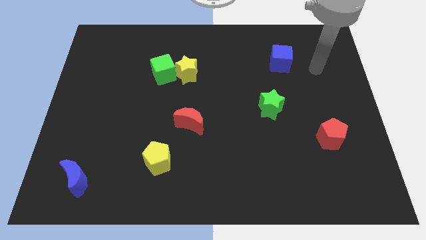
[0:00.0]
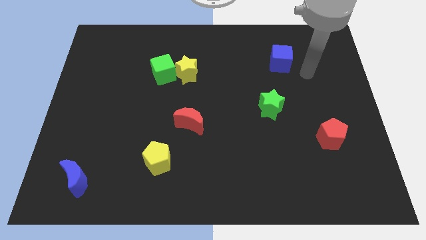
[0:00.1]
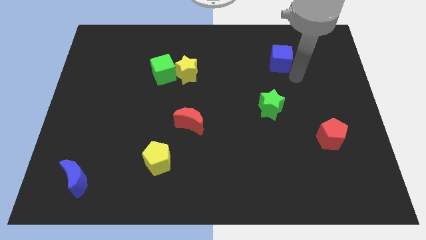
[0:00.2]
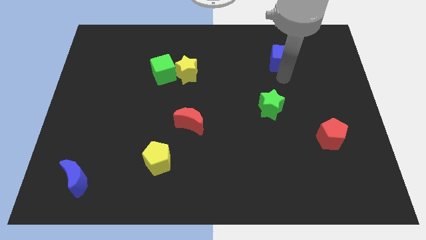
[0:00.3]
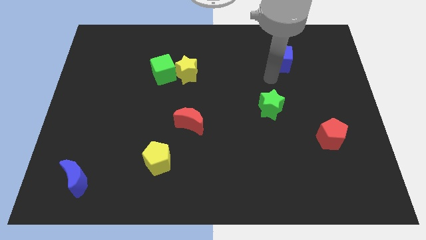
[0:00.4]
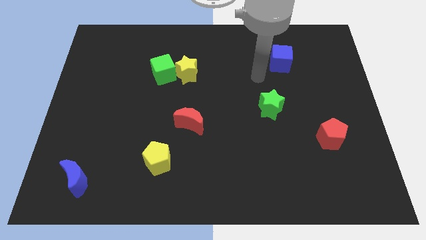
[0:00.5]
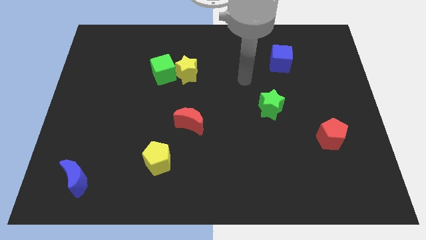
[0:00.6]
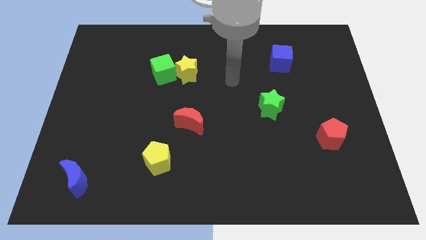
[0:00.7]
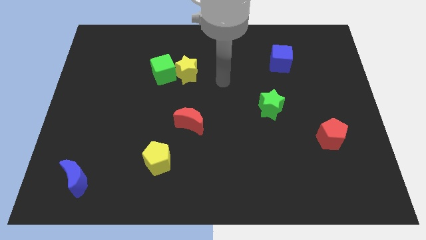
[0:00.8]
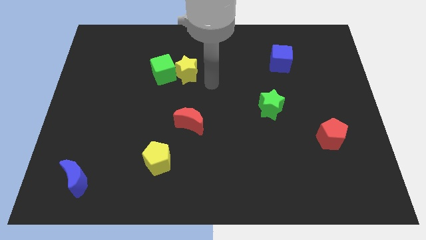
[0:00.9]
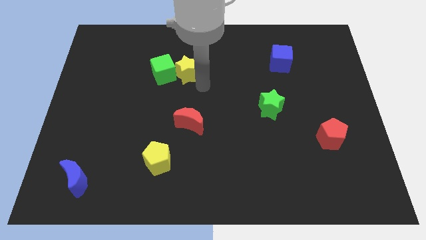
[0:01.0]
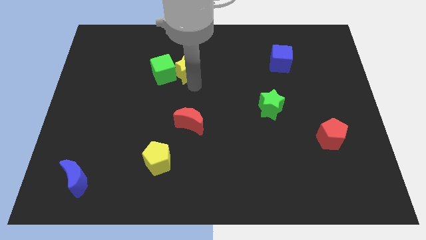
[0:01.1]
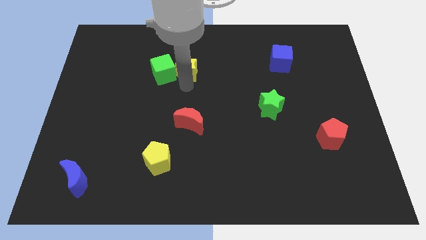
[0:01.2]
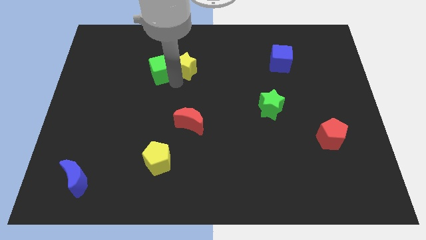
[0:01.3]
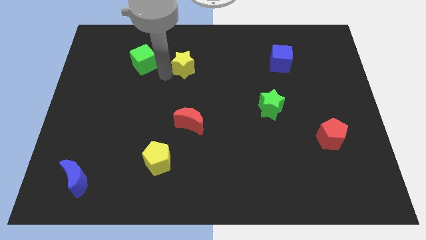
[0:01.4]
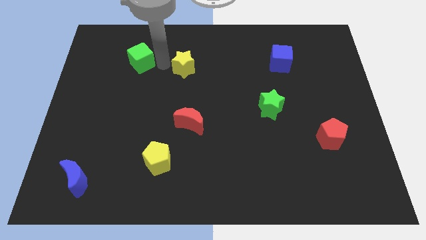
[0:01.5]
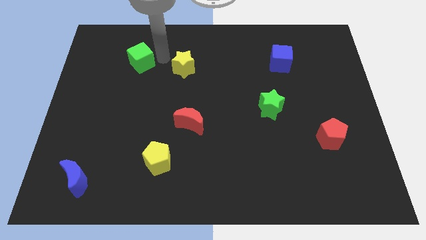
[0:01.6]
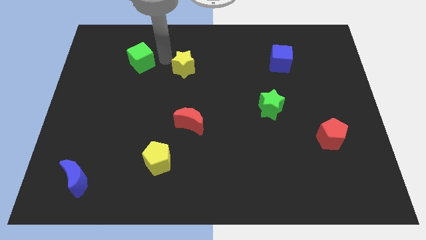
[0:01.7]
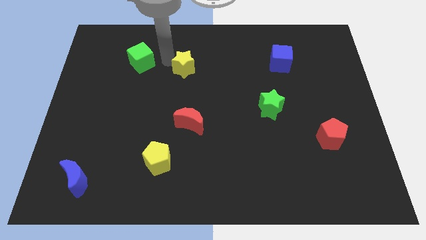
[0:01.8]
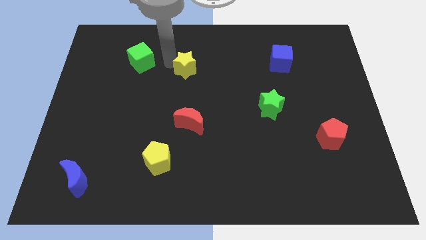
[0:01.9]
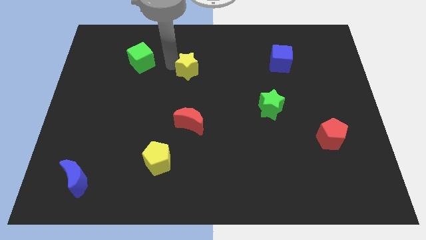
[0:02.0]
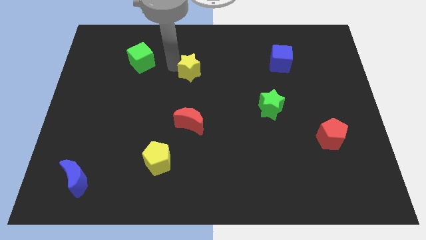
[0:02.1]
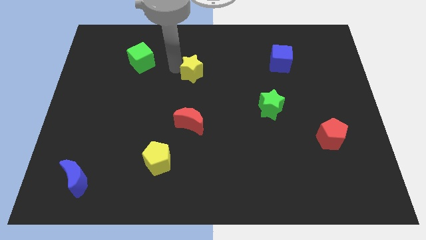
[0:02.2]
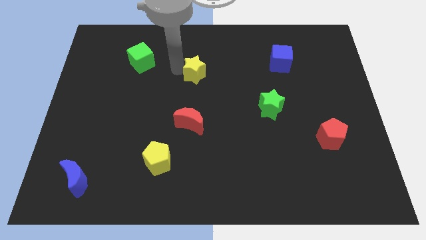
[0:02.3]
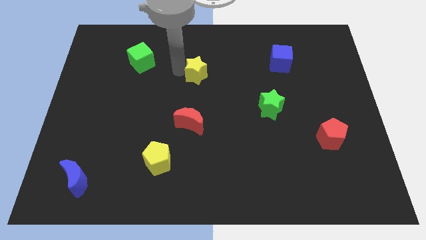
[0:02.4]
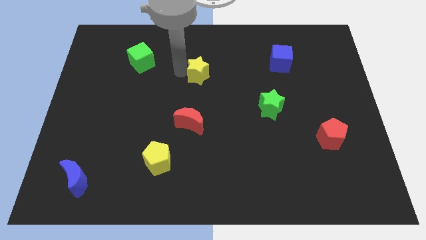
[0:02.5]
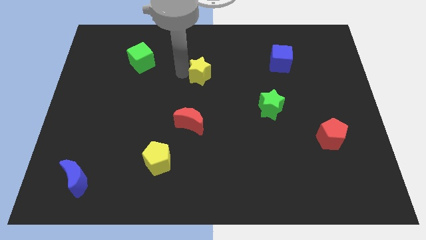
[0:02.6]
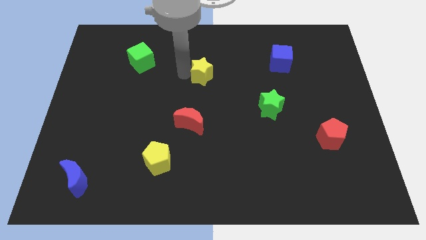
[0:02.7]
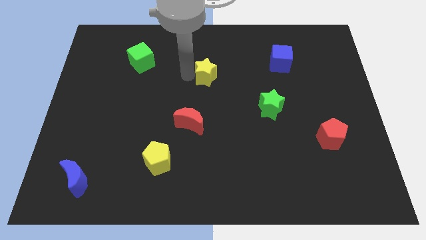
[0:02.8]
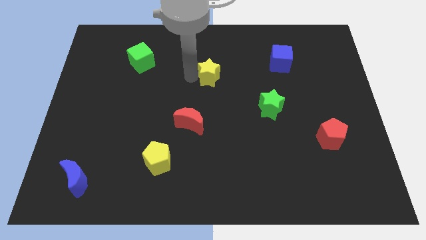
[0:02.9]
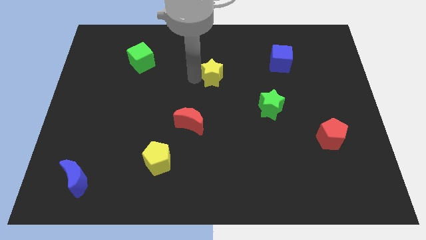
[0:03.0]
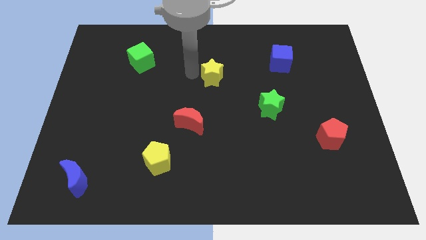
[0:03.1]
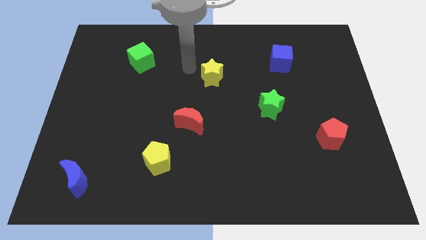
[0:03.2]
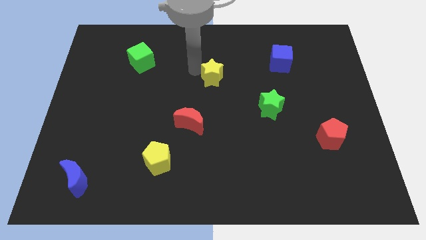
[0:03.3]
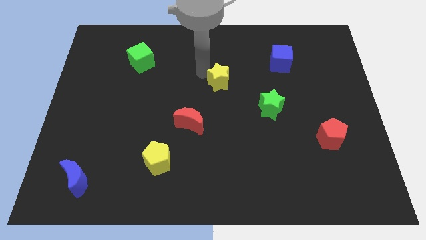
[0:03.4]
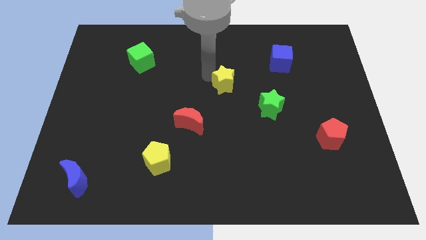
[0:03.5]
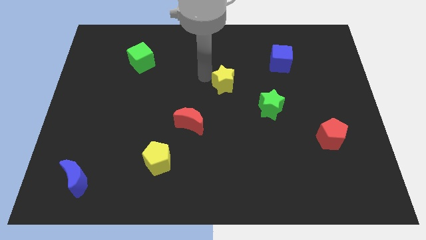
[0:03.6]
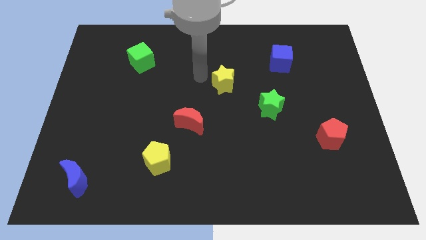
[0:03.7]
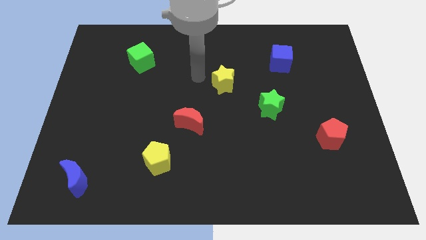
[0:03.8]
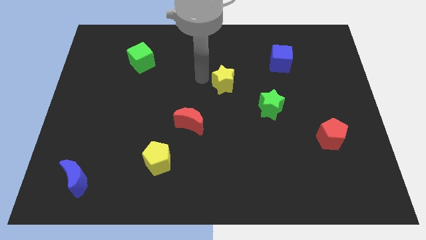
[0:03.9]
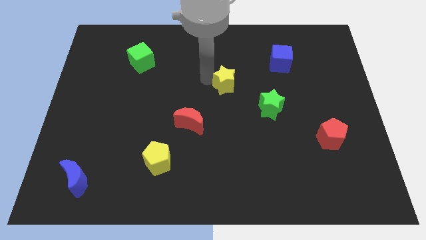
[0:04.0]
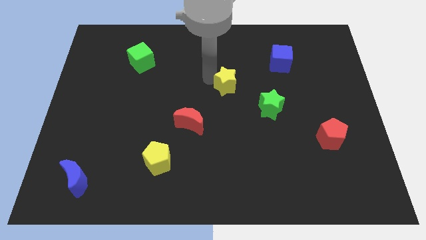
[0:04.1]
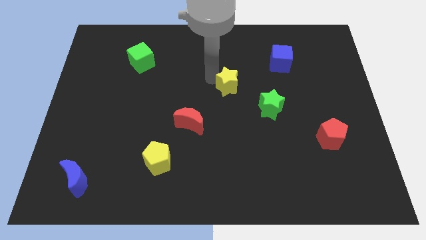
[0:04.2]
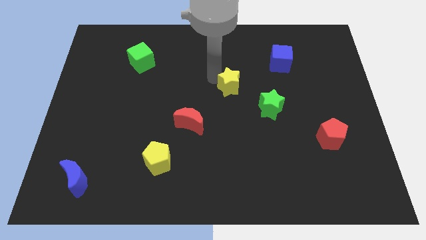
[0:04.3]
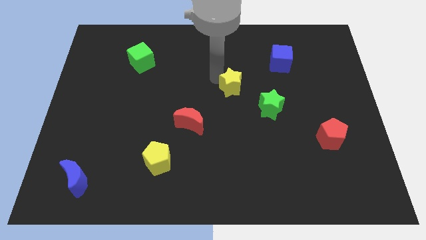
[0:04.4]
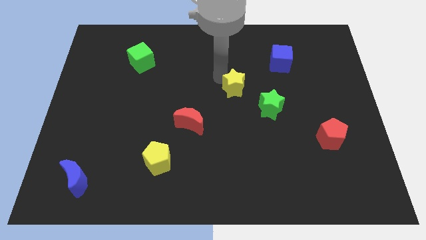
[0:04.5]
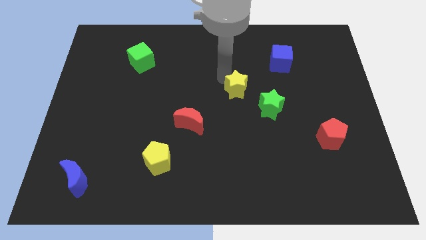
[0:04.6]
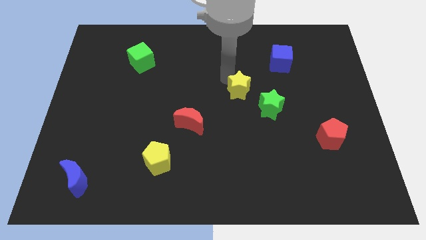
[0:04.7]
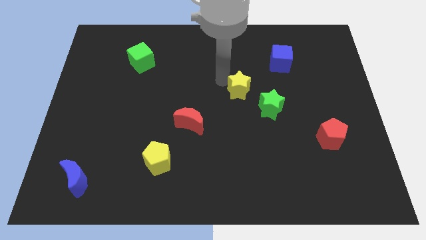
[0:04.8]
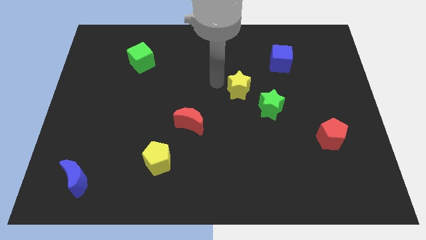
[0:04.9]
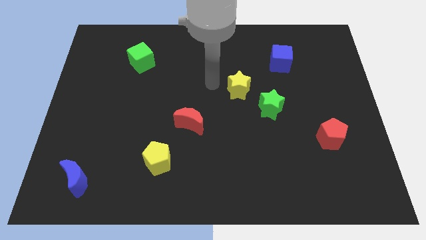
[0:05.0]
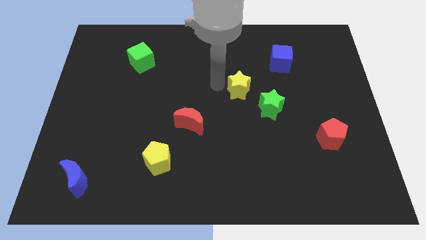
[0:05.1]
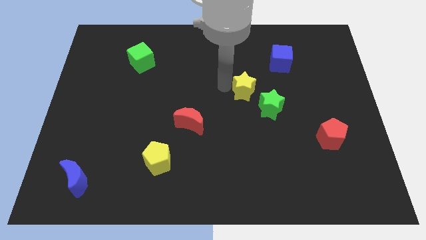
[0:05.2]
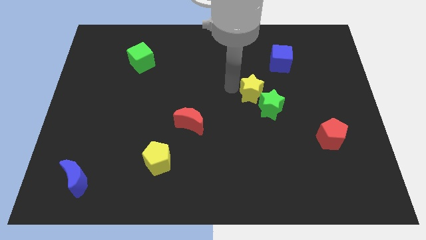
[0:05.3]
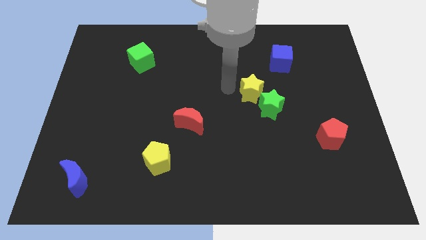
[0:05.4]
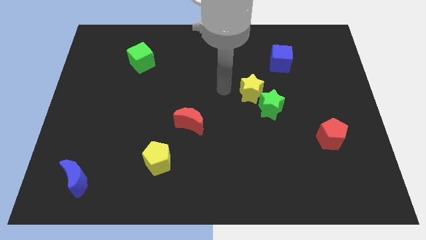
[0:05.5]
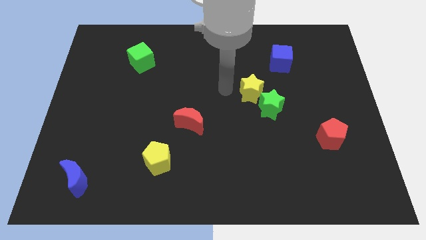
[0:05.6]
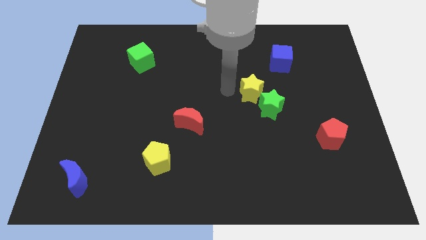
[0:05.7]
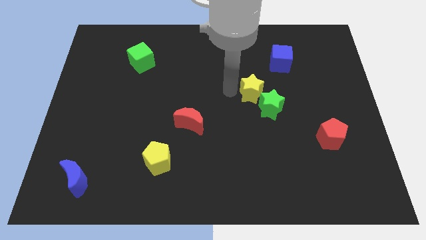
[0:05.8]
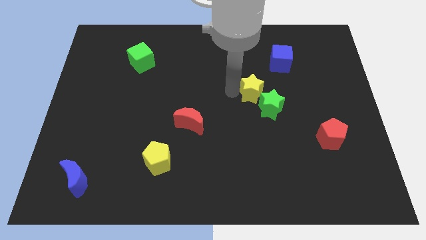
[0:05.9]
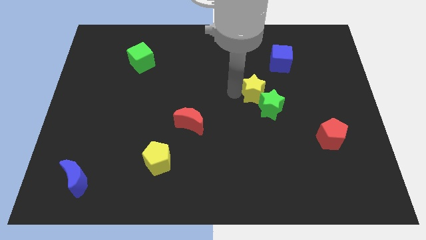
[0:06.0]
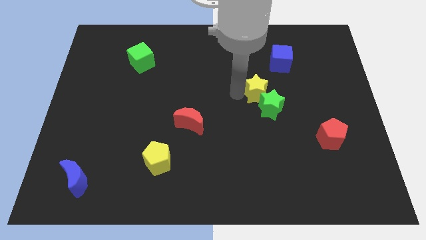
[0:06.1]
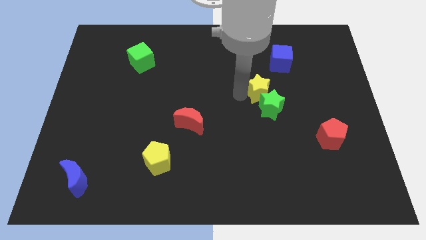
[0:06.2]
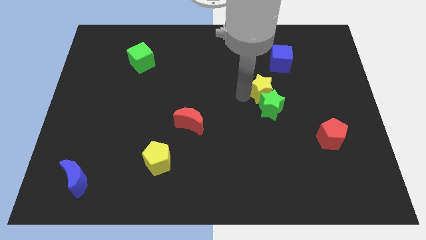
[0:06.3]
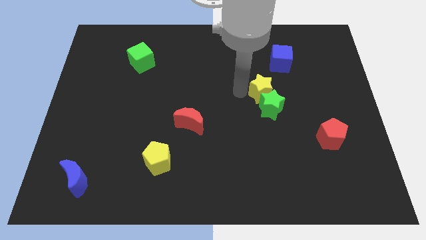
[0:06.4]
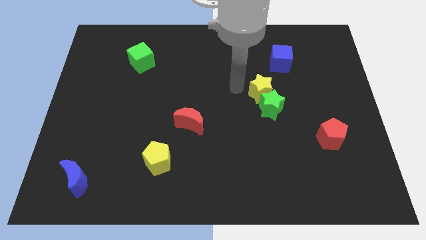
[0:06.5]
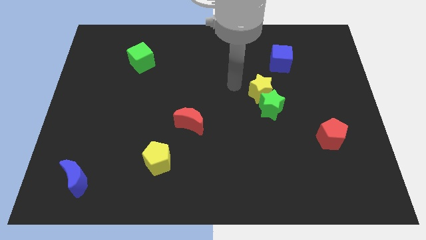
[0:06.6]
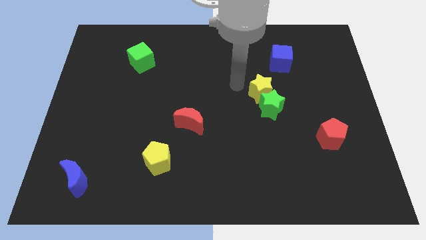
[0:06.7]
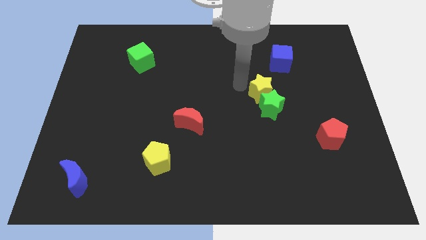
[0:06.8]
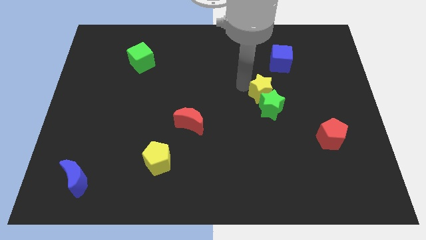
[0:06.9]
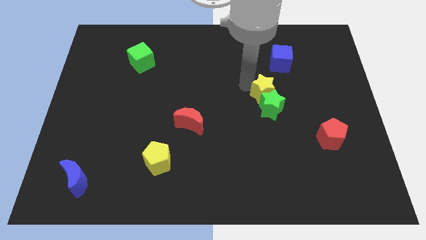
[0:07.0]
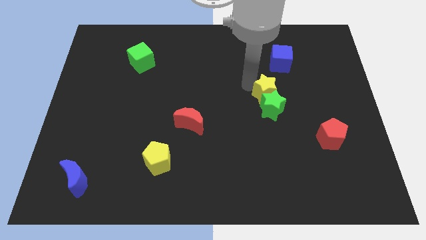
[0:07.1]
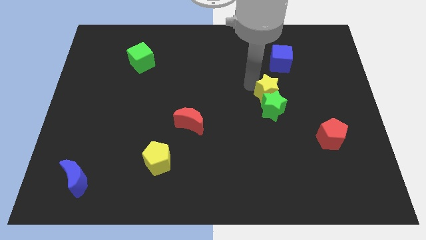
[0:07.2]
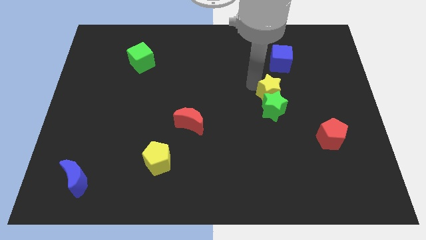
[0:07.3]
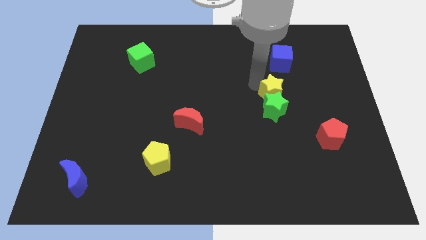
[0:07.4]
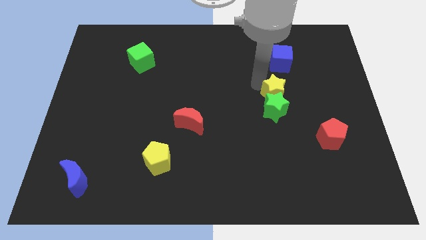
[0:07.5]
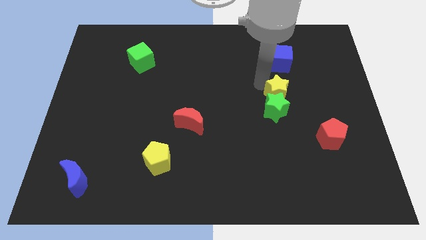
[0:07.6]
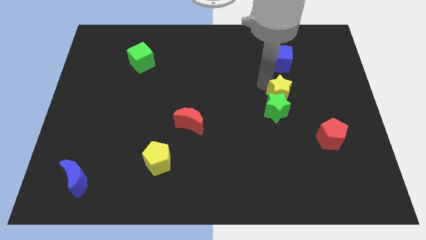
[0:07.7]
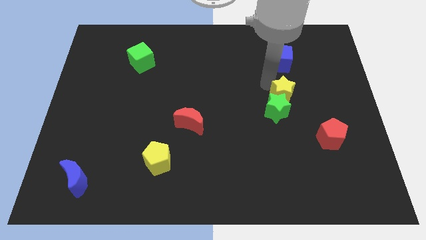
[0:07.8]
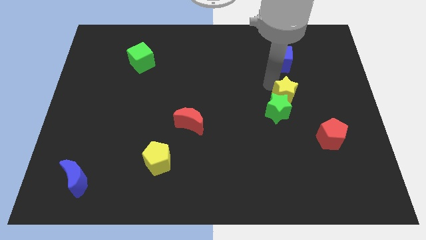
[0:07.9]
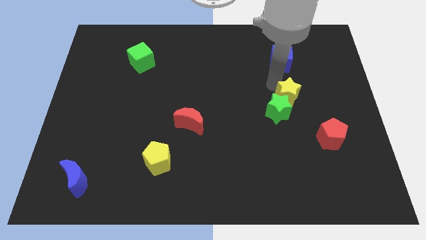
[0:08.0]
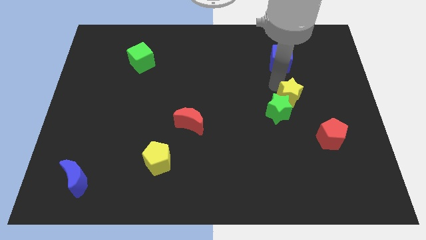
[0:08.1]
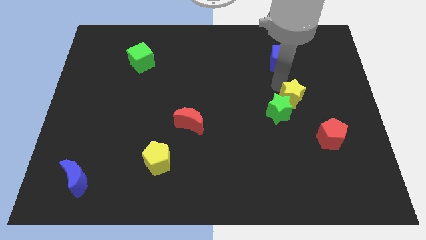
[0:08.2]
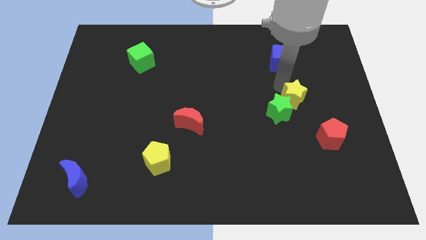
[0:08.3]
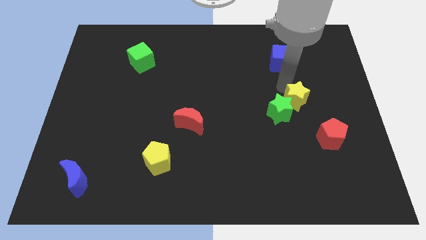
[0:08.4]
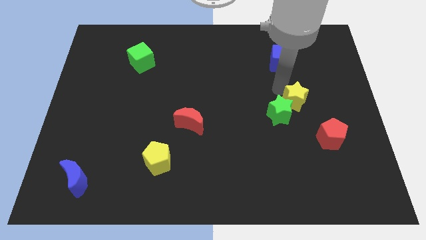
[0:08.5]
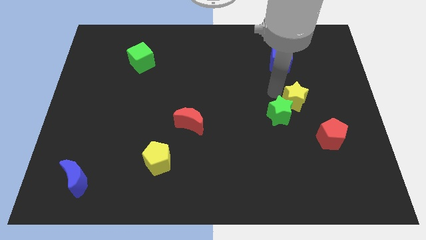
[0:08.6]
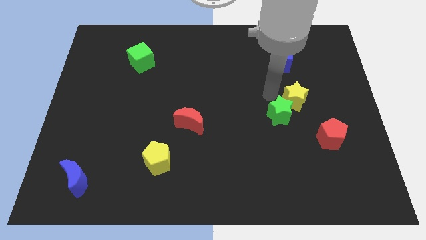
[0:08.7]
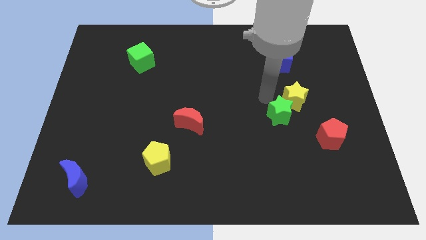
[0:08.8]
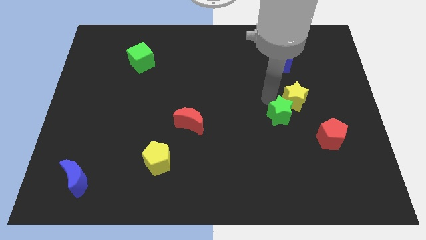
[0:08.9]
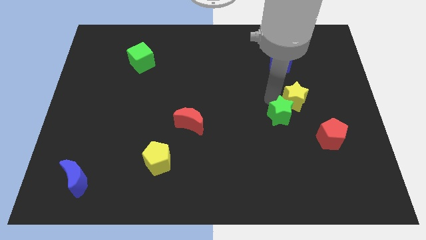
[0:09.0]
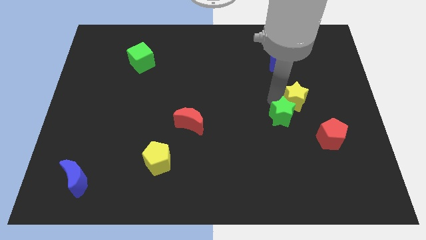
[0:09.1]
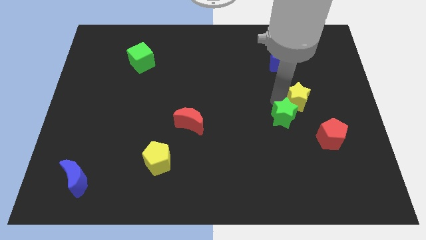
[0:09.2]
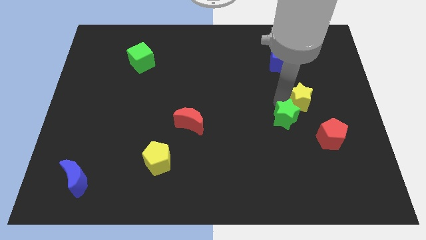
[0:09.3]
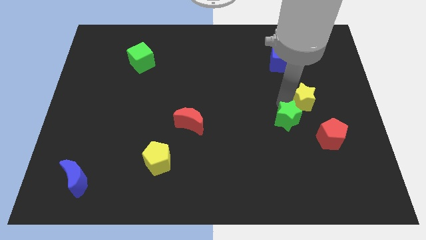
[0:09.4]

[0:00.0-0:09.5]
put the yellow star to the top side of the red pentagon
